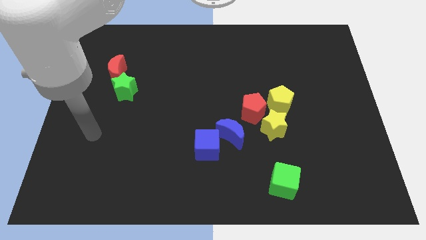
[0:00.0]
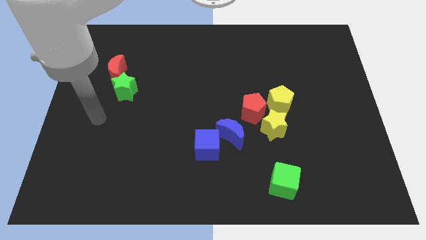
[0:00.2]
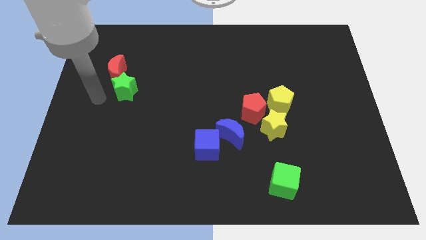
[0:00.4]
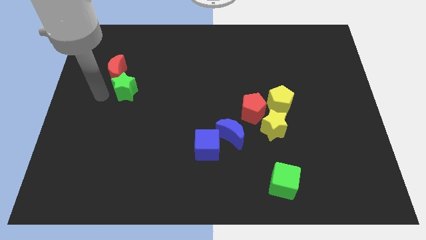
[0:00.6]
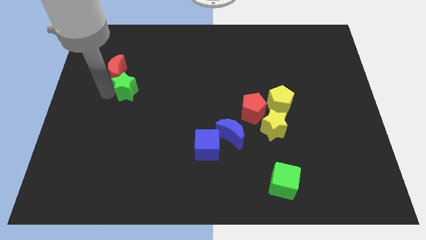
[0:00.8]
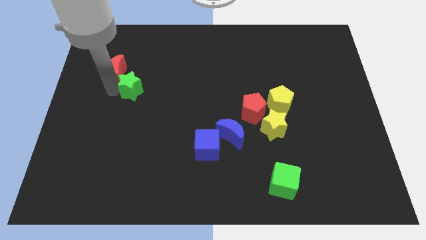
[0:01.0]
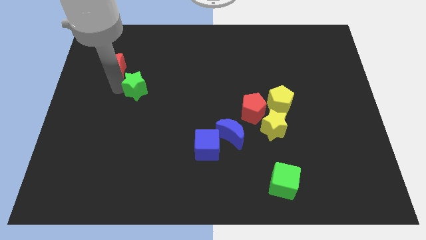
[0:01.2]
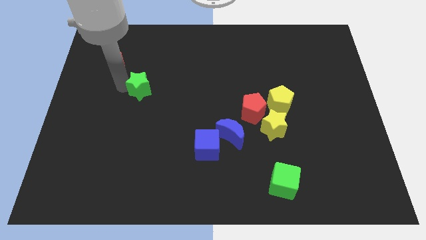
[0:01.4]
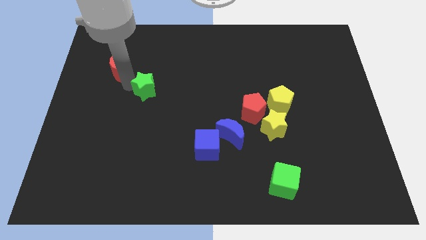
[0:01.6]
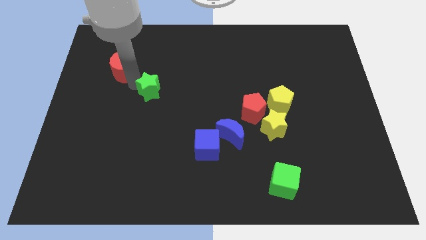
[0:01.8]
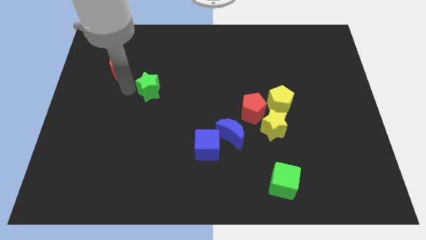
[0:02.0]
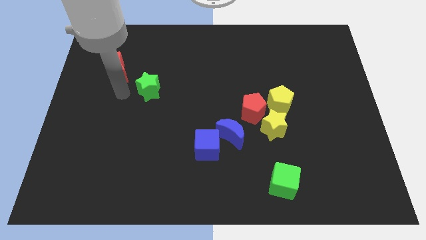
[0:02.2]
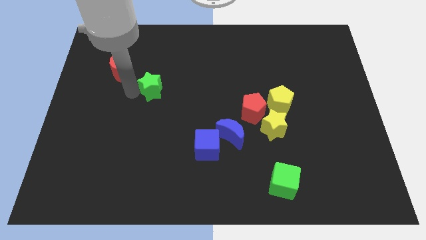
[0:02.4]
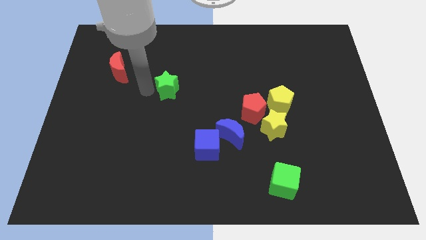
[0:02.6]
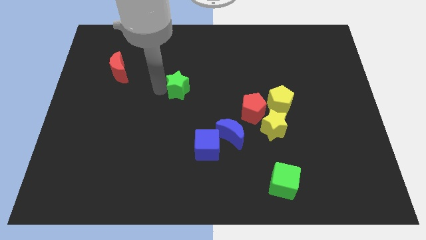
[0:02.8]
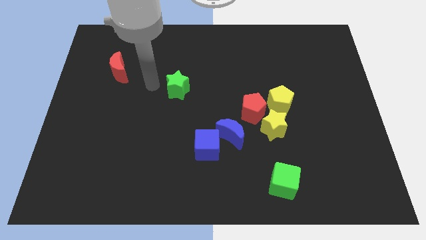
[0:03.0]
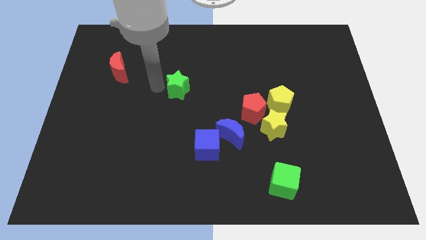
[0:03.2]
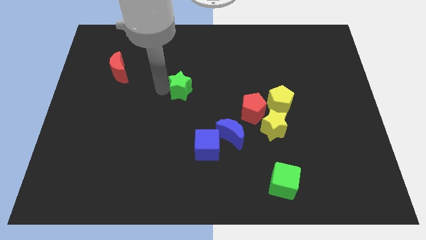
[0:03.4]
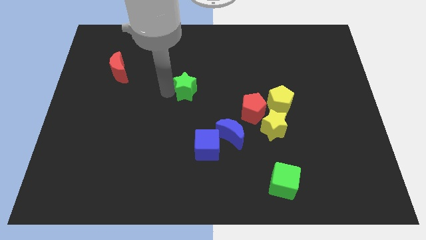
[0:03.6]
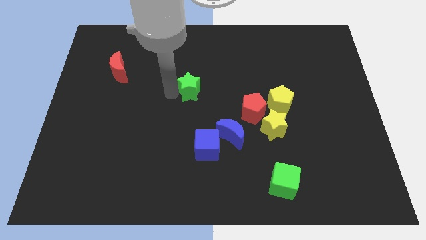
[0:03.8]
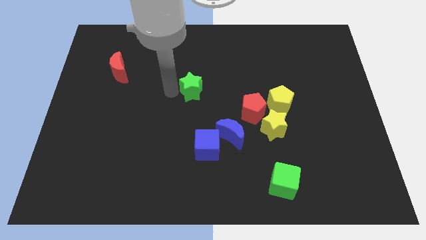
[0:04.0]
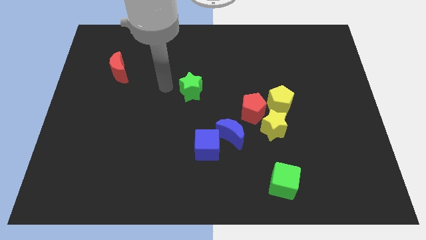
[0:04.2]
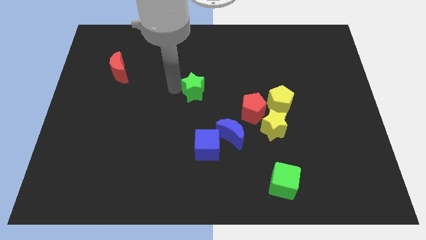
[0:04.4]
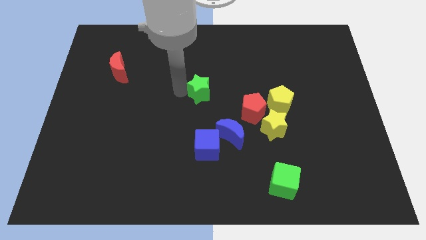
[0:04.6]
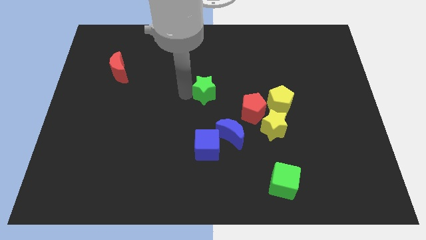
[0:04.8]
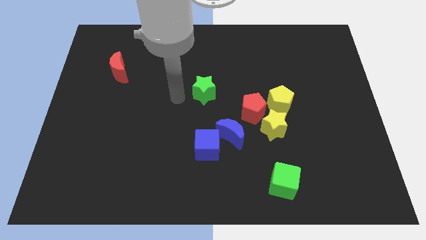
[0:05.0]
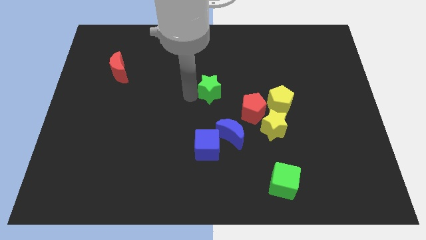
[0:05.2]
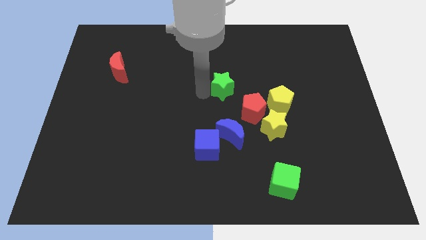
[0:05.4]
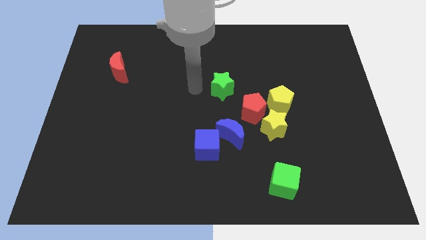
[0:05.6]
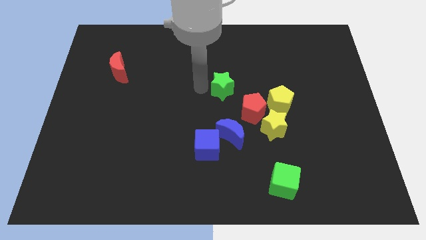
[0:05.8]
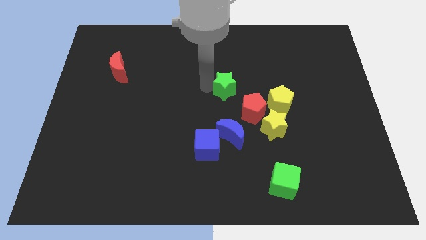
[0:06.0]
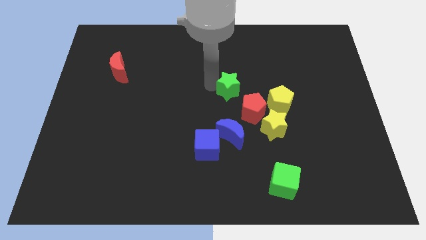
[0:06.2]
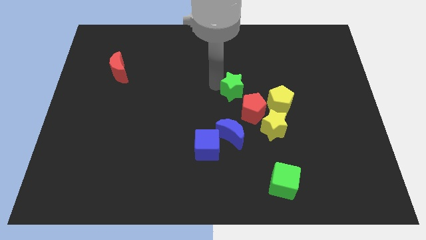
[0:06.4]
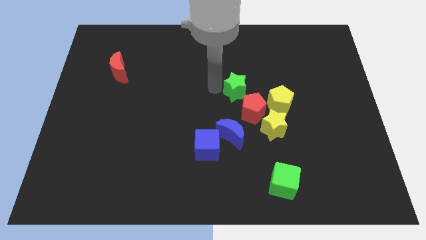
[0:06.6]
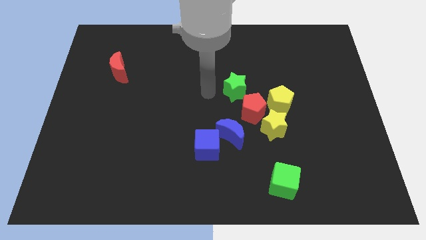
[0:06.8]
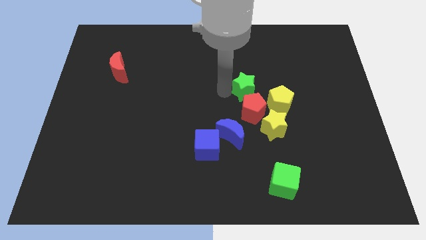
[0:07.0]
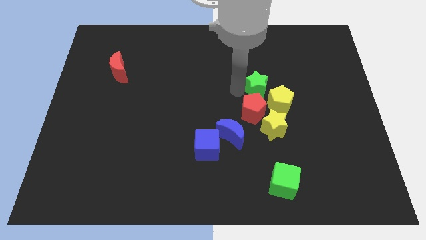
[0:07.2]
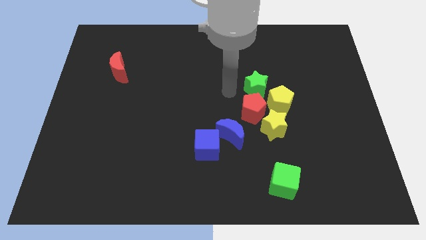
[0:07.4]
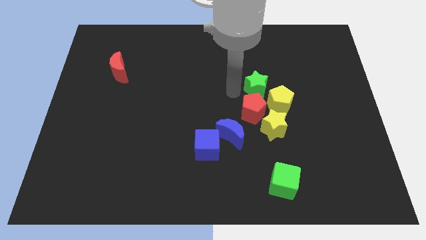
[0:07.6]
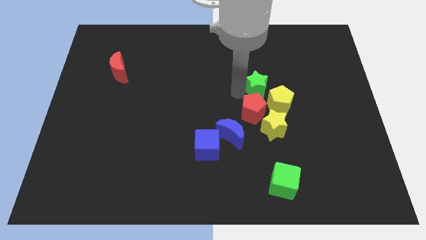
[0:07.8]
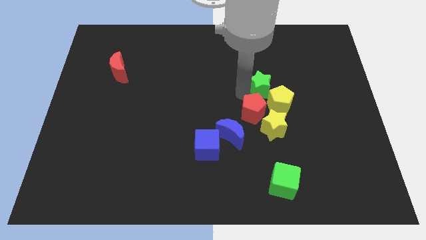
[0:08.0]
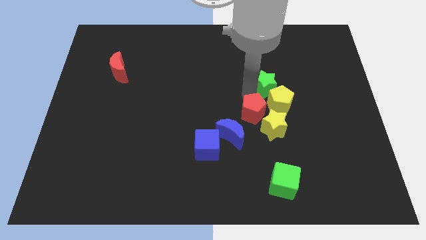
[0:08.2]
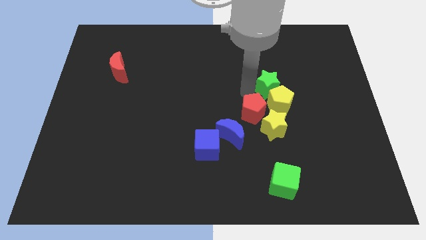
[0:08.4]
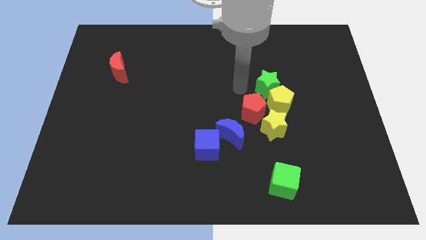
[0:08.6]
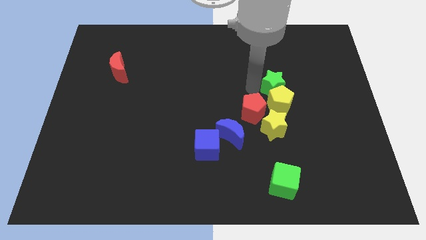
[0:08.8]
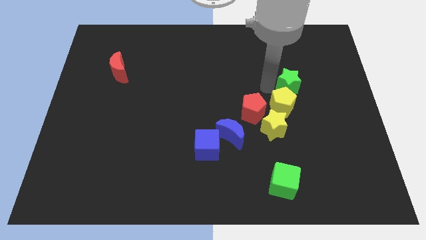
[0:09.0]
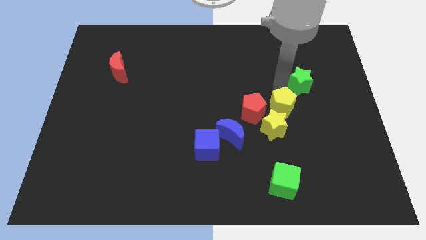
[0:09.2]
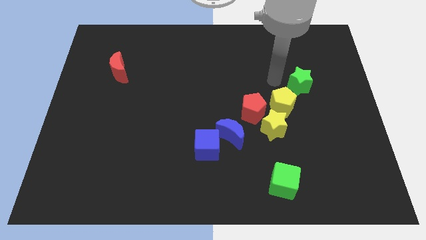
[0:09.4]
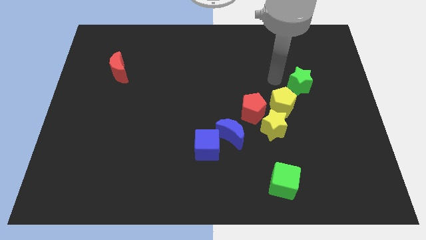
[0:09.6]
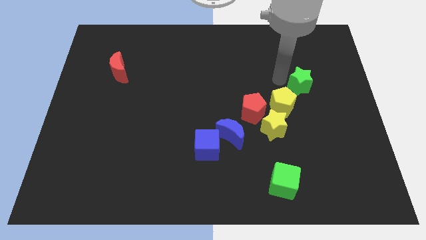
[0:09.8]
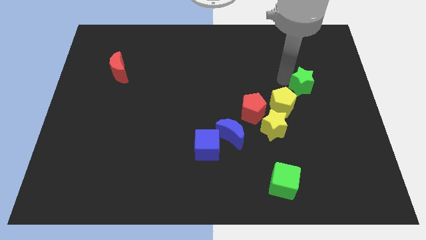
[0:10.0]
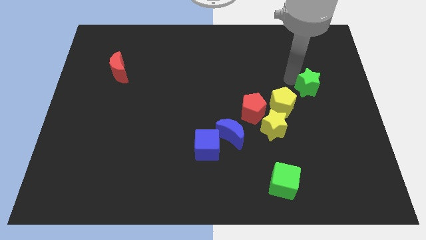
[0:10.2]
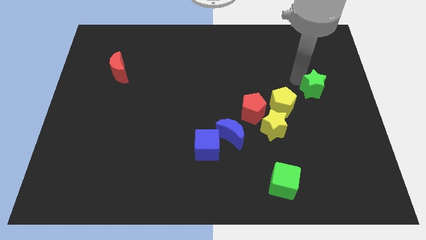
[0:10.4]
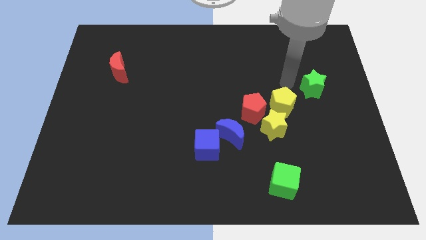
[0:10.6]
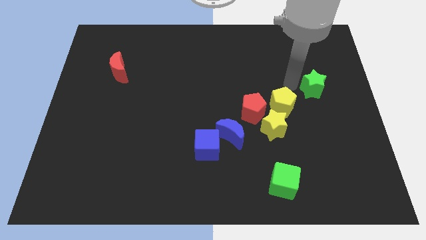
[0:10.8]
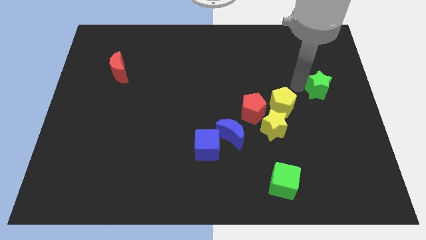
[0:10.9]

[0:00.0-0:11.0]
push the green star to the right side of the board
